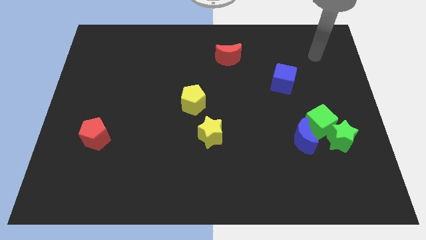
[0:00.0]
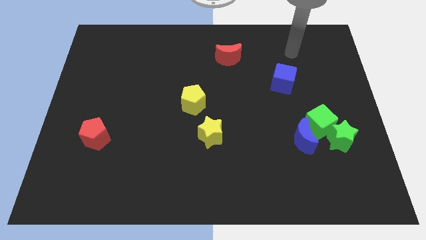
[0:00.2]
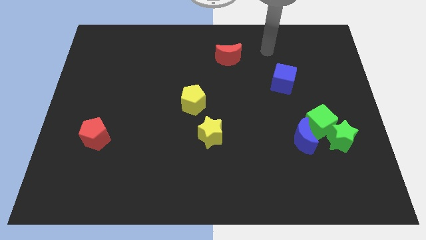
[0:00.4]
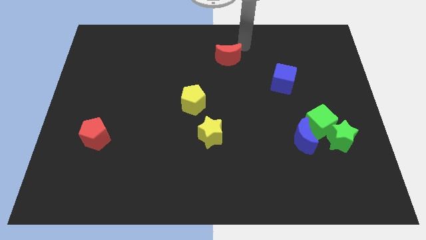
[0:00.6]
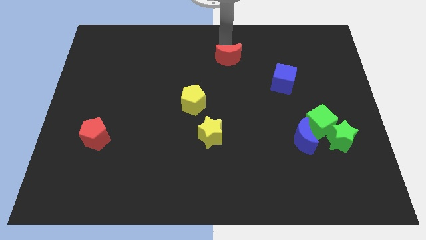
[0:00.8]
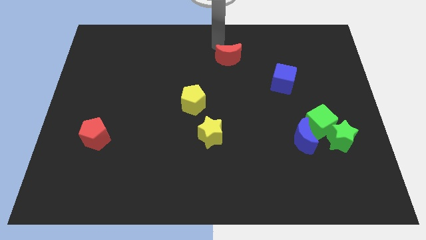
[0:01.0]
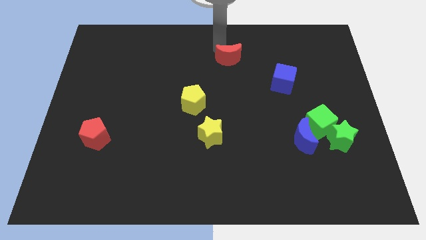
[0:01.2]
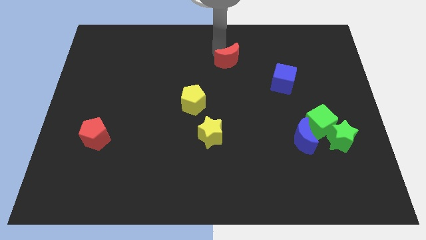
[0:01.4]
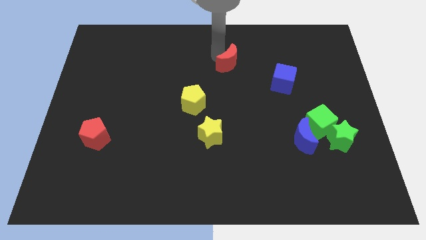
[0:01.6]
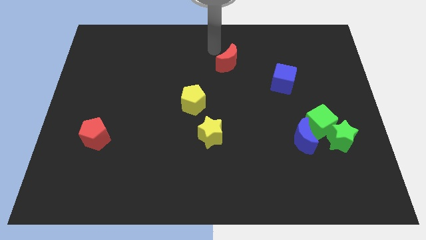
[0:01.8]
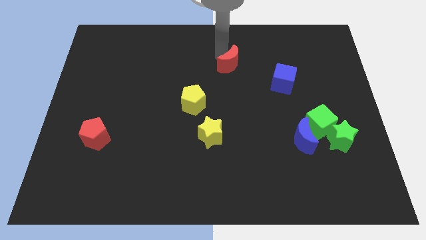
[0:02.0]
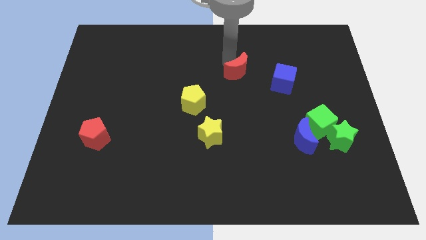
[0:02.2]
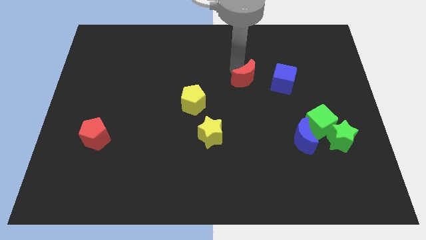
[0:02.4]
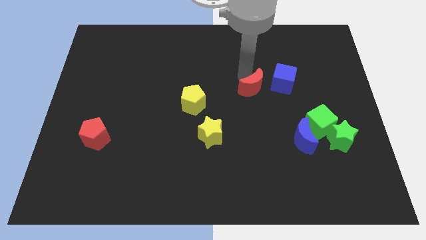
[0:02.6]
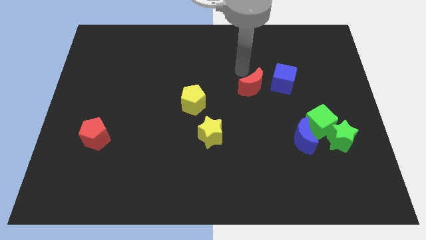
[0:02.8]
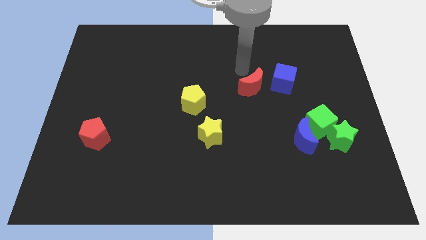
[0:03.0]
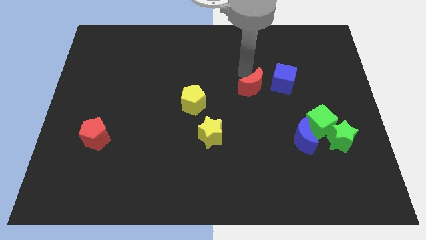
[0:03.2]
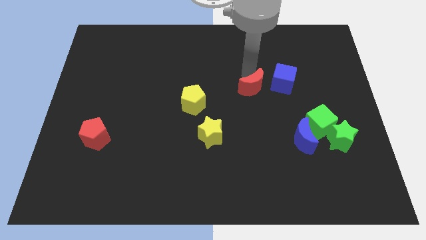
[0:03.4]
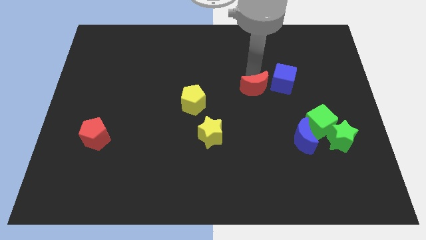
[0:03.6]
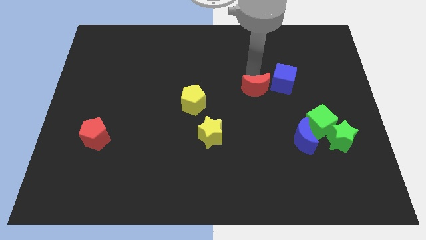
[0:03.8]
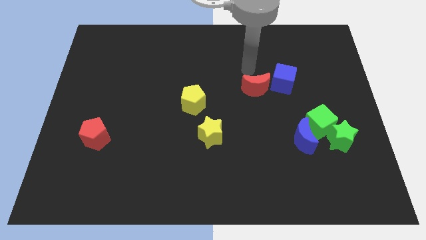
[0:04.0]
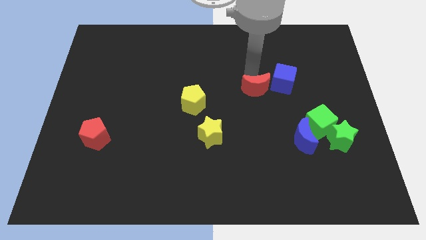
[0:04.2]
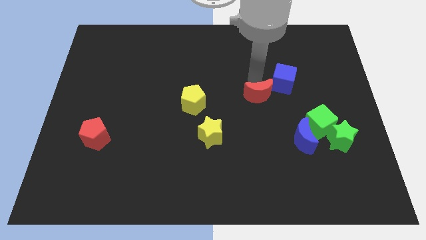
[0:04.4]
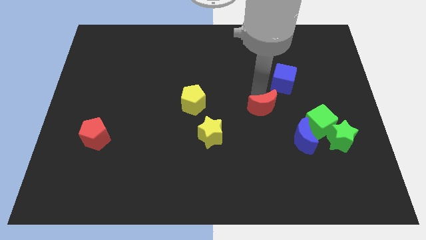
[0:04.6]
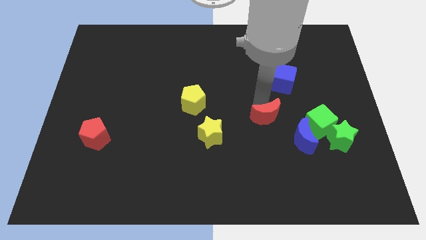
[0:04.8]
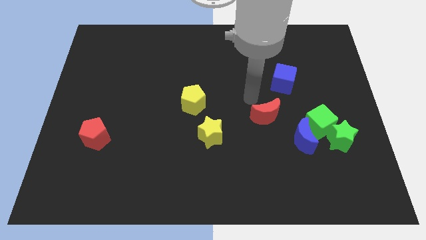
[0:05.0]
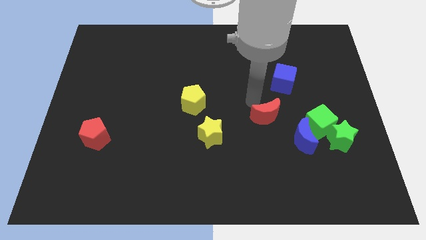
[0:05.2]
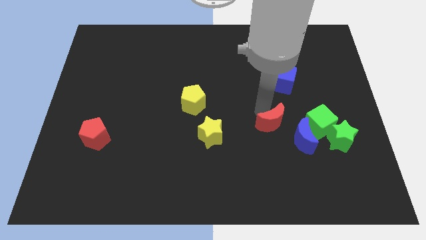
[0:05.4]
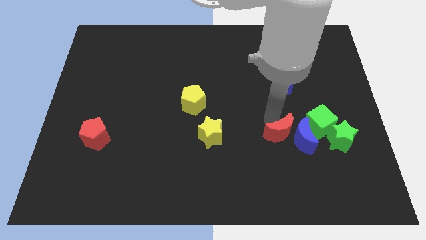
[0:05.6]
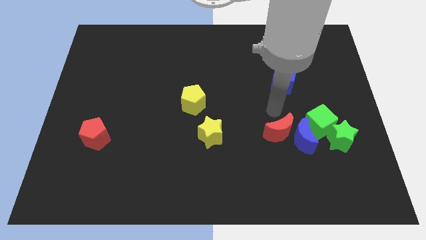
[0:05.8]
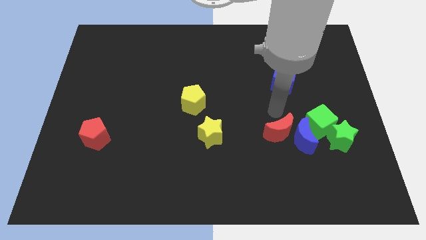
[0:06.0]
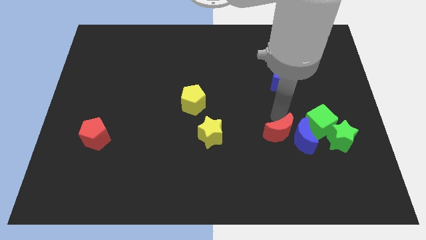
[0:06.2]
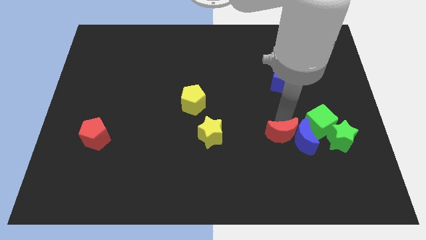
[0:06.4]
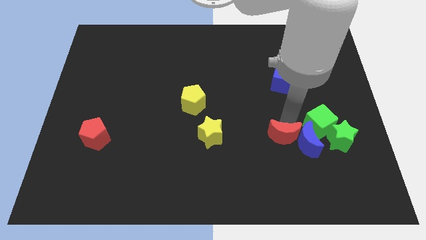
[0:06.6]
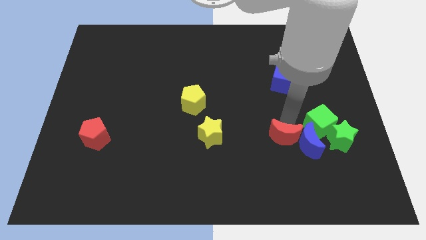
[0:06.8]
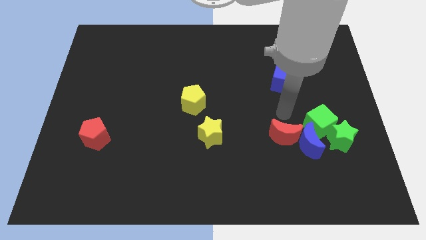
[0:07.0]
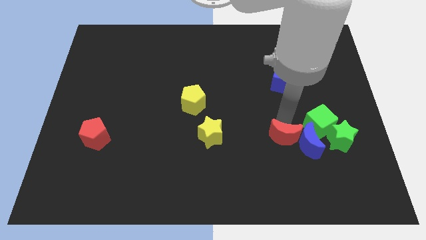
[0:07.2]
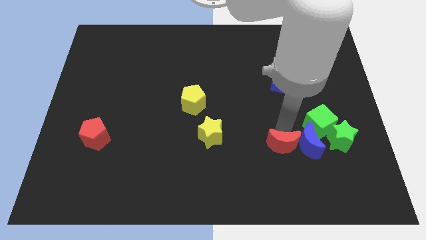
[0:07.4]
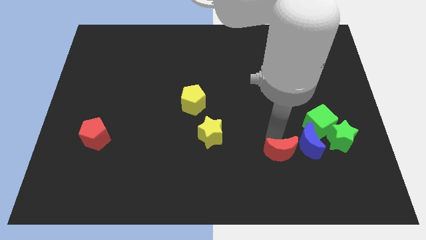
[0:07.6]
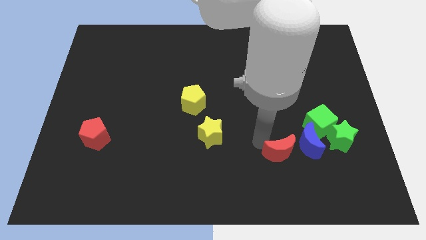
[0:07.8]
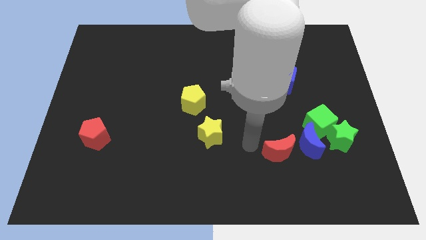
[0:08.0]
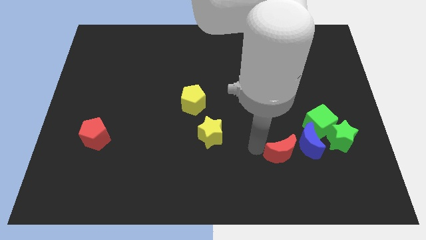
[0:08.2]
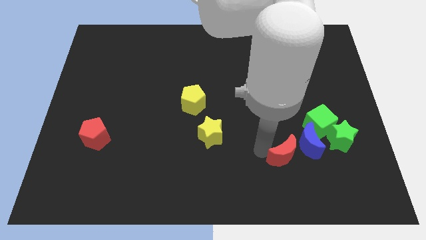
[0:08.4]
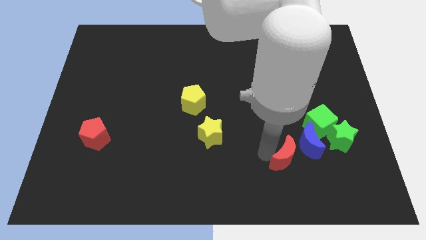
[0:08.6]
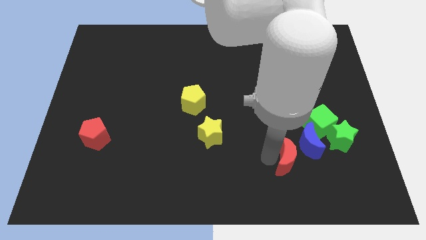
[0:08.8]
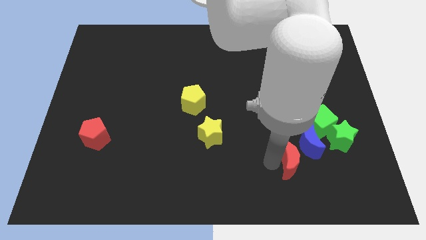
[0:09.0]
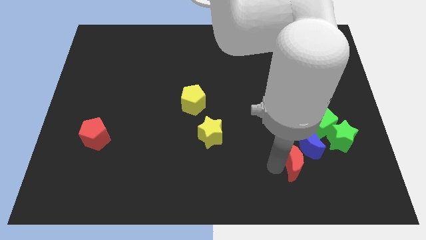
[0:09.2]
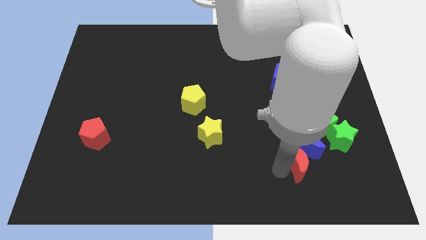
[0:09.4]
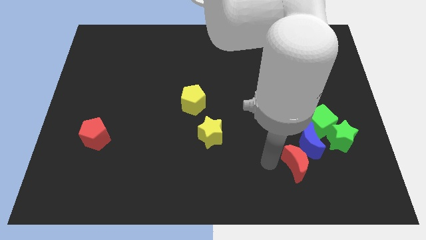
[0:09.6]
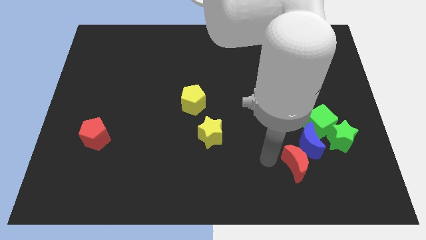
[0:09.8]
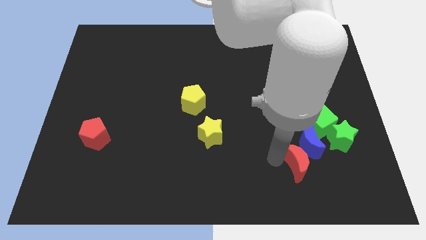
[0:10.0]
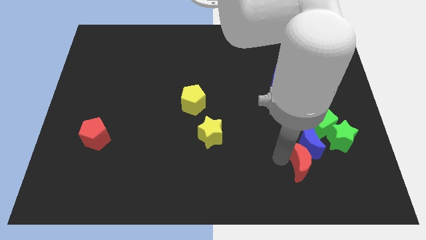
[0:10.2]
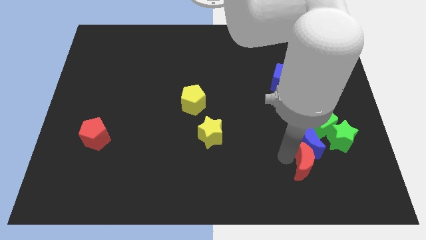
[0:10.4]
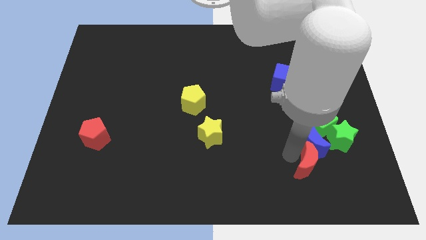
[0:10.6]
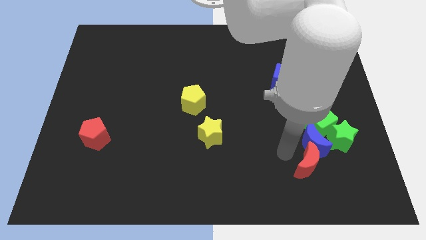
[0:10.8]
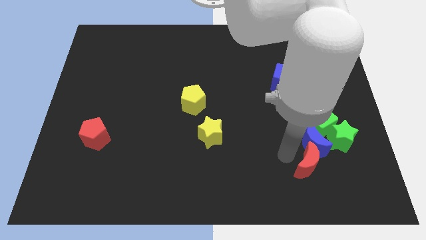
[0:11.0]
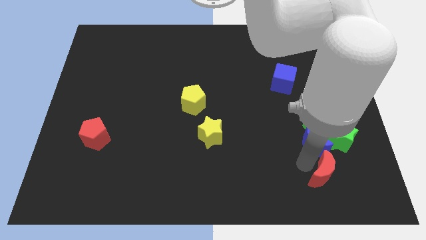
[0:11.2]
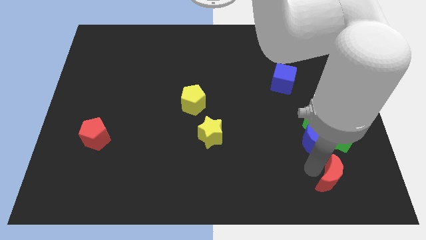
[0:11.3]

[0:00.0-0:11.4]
put the red moon to the bottom side of the green star

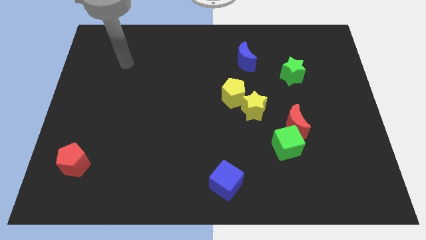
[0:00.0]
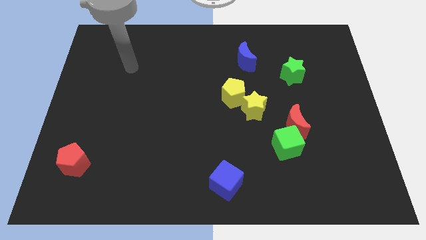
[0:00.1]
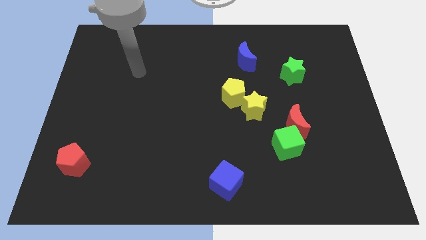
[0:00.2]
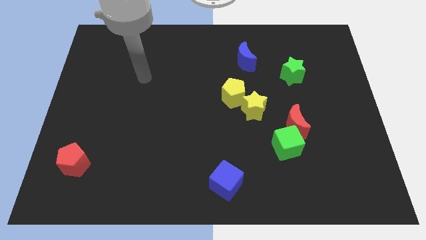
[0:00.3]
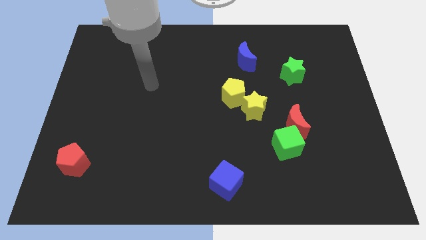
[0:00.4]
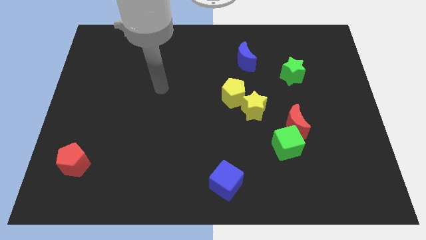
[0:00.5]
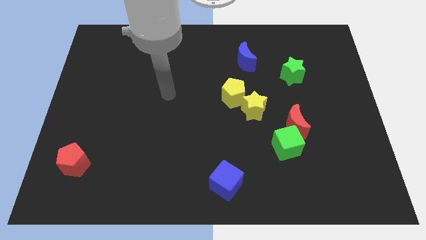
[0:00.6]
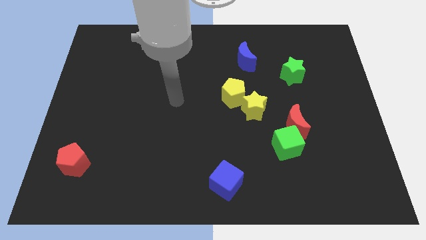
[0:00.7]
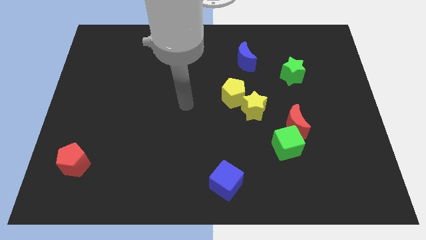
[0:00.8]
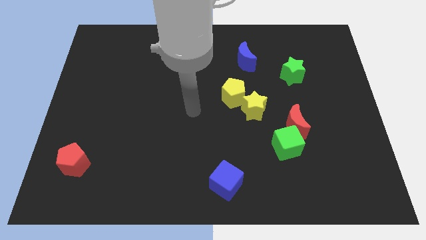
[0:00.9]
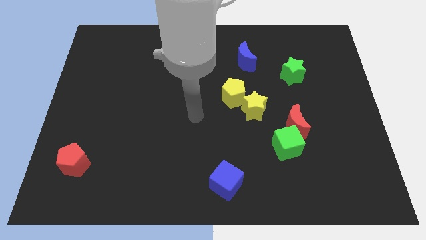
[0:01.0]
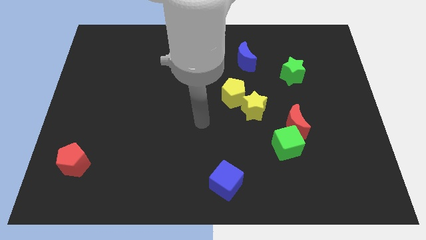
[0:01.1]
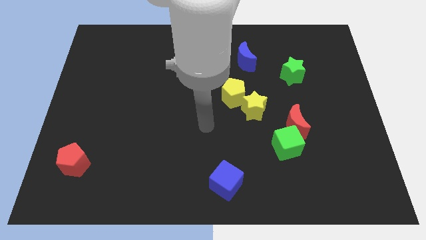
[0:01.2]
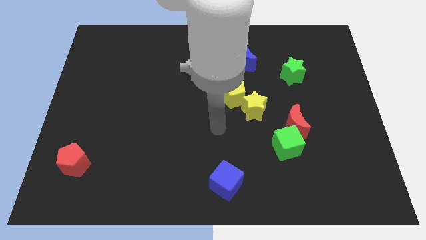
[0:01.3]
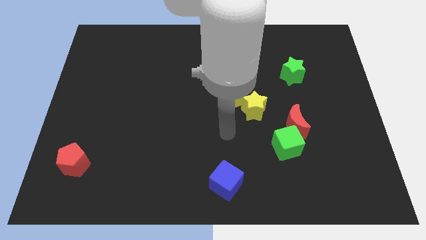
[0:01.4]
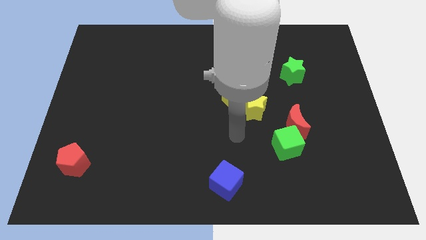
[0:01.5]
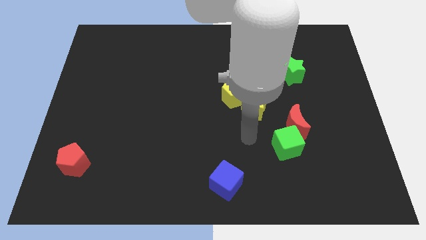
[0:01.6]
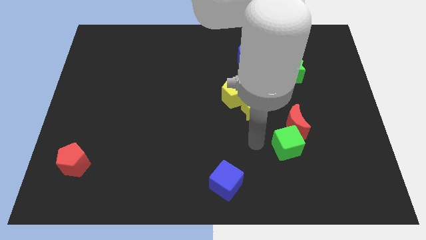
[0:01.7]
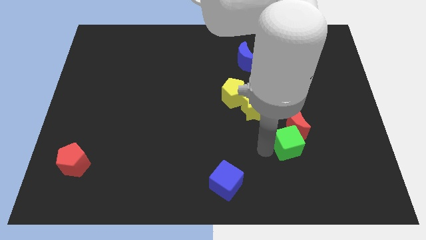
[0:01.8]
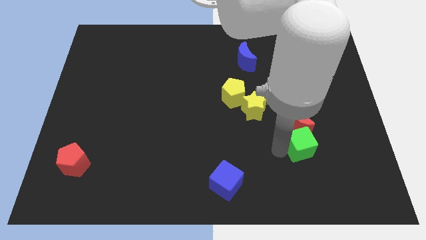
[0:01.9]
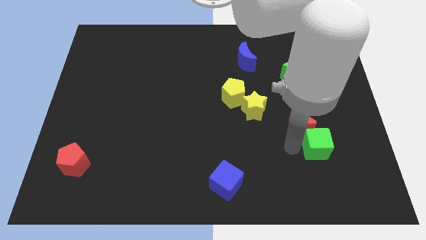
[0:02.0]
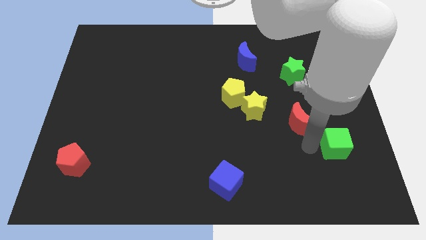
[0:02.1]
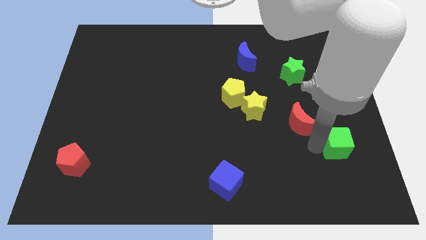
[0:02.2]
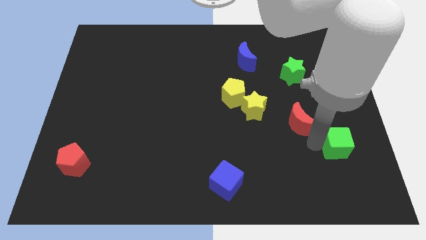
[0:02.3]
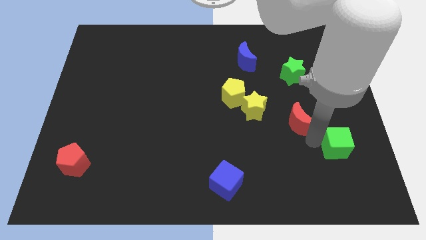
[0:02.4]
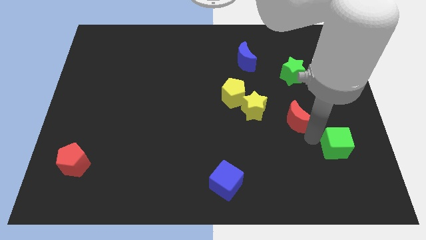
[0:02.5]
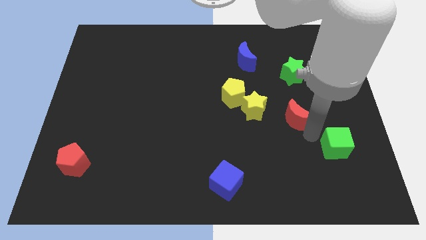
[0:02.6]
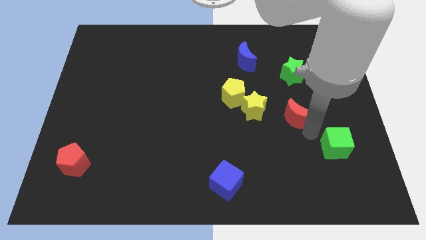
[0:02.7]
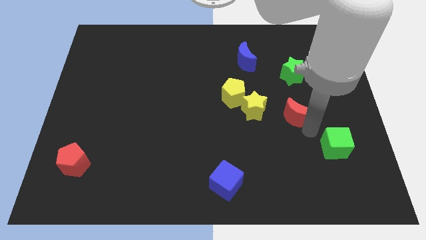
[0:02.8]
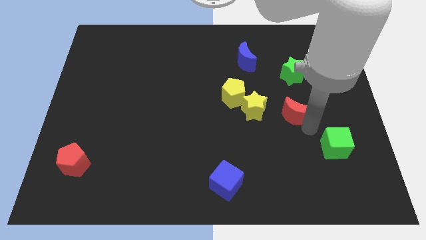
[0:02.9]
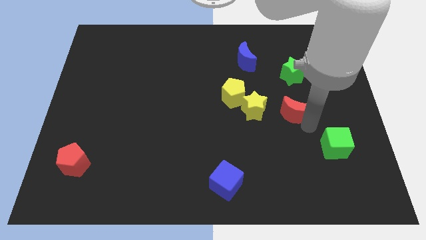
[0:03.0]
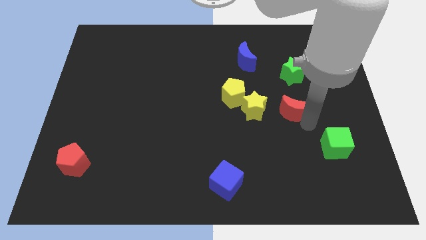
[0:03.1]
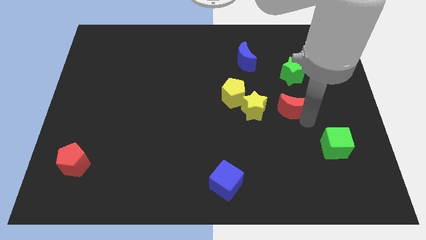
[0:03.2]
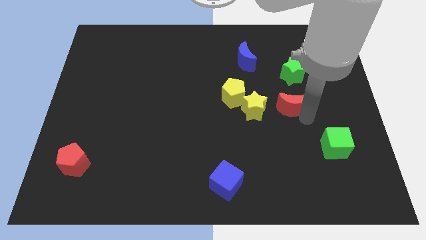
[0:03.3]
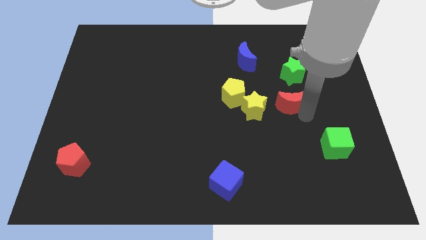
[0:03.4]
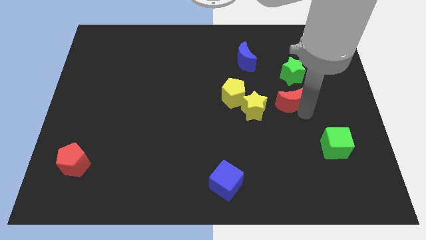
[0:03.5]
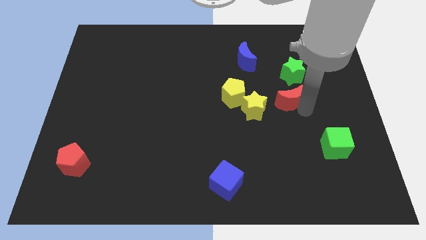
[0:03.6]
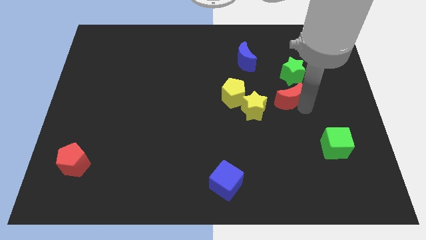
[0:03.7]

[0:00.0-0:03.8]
push the red moon diagonally down and to the left of the green star
